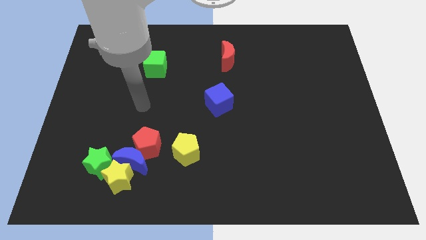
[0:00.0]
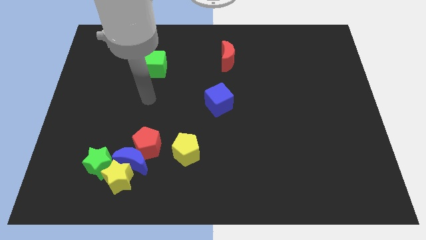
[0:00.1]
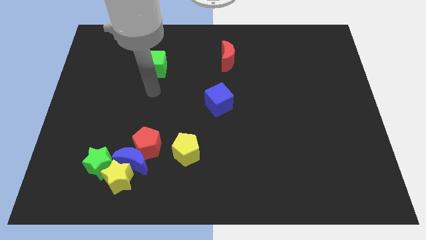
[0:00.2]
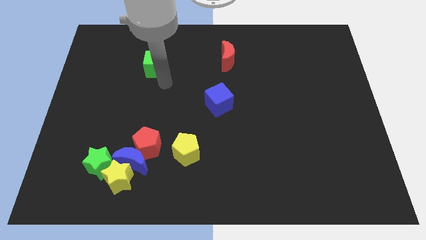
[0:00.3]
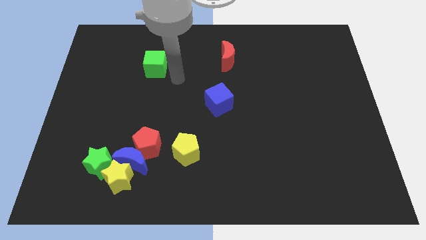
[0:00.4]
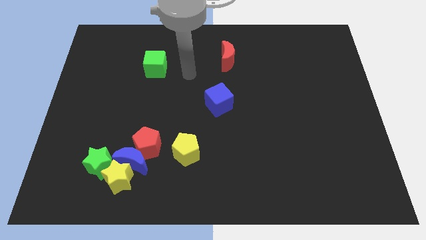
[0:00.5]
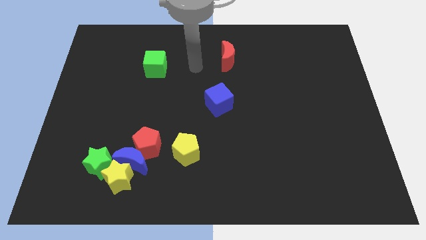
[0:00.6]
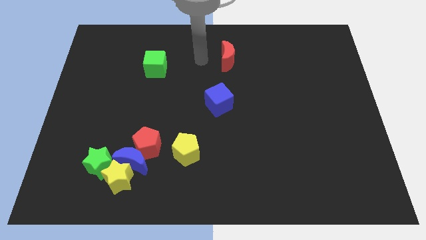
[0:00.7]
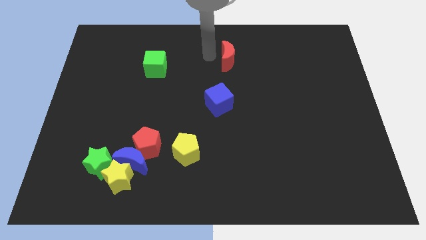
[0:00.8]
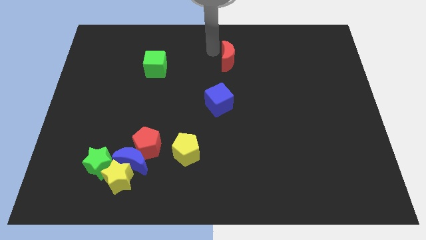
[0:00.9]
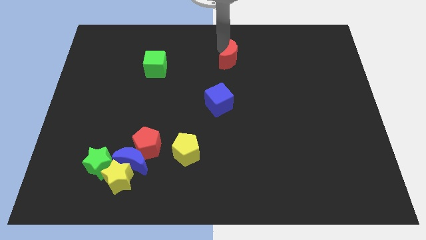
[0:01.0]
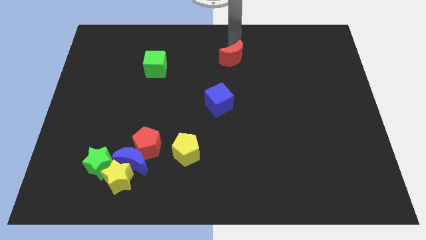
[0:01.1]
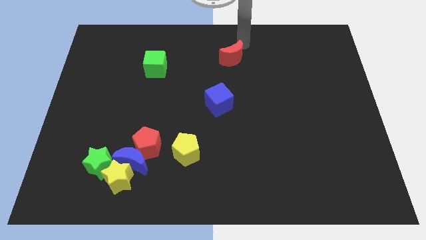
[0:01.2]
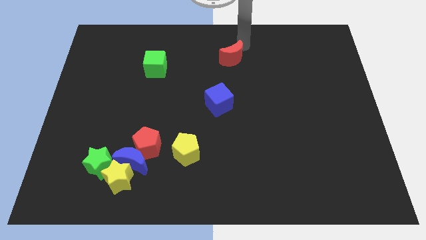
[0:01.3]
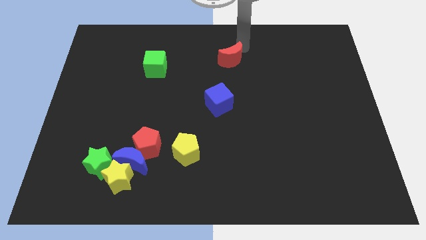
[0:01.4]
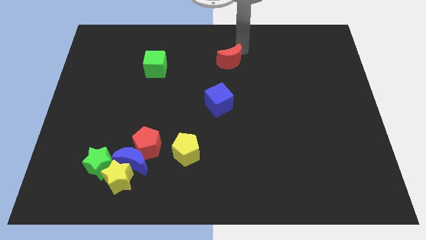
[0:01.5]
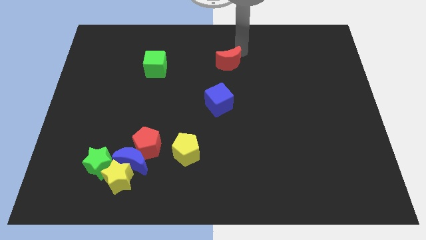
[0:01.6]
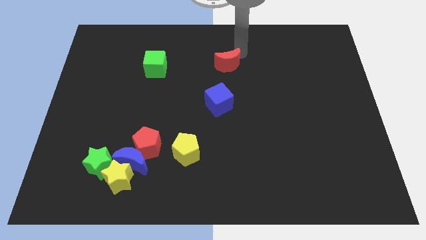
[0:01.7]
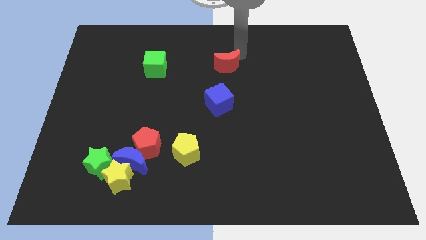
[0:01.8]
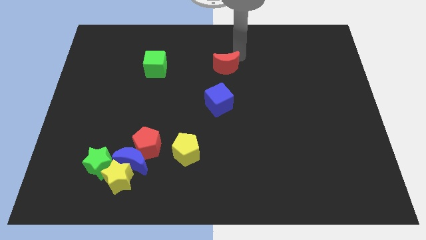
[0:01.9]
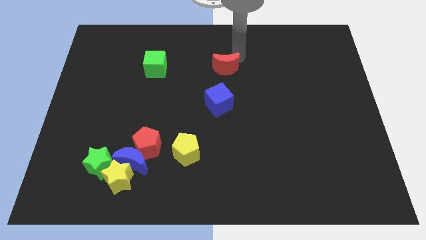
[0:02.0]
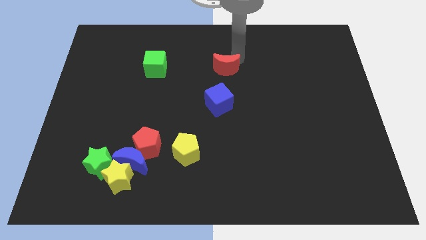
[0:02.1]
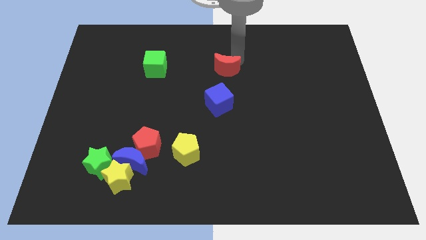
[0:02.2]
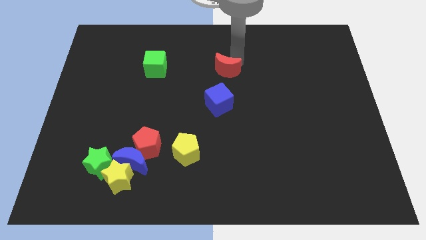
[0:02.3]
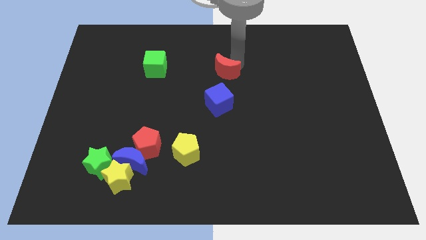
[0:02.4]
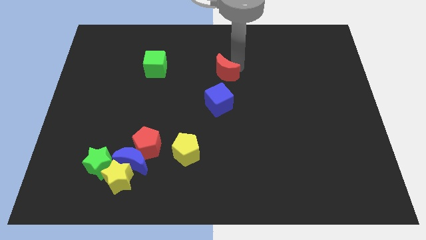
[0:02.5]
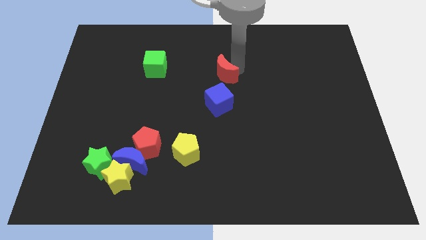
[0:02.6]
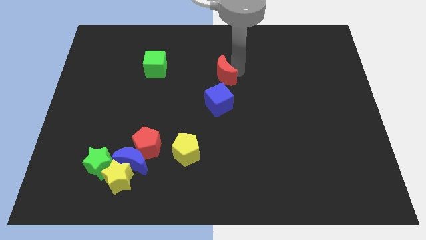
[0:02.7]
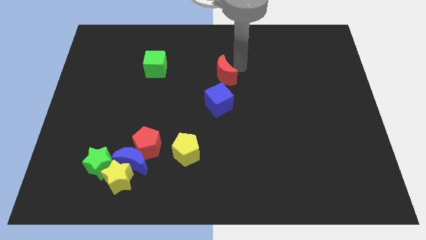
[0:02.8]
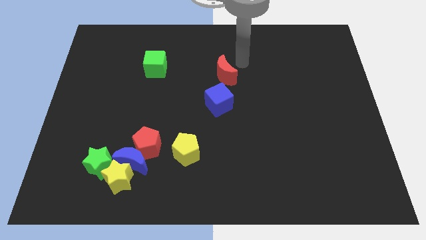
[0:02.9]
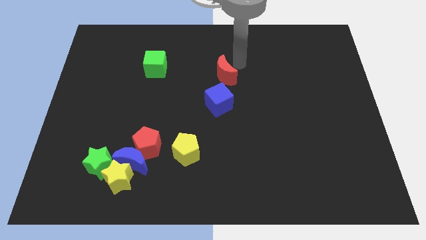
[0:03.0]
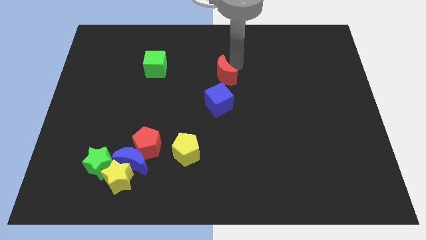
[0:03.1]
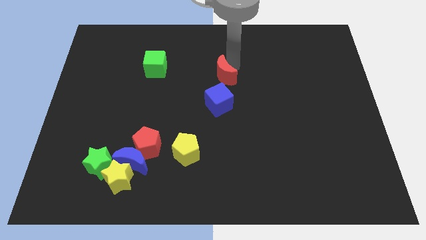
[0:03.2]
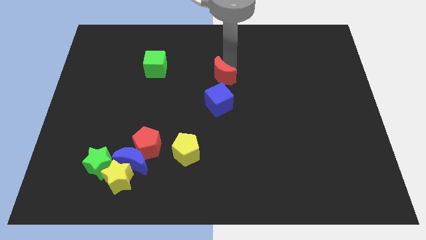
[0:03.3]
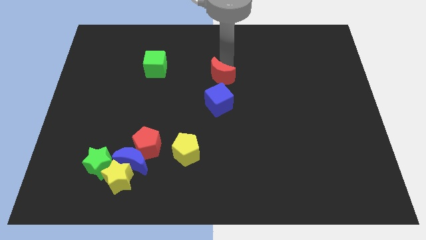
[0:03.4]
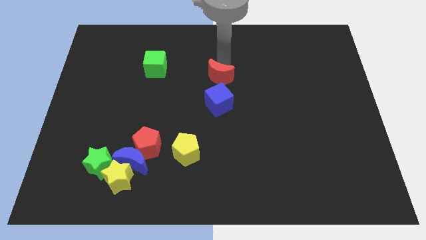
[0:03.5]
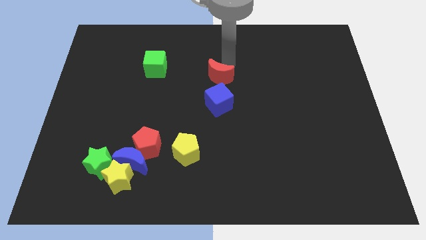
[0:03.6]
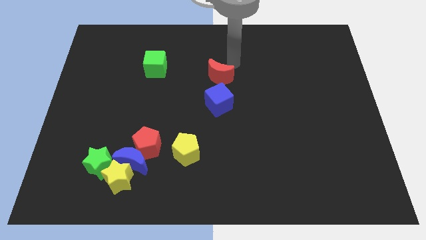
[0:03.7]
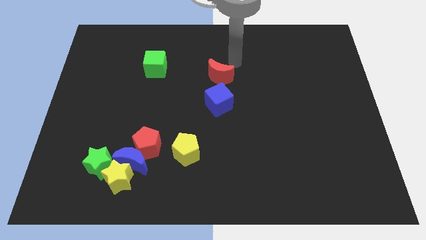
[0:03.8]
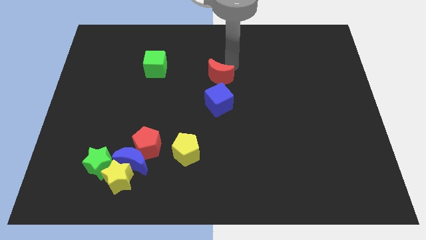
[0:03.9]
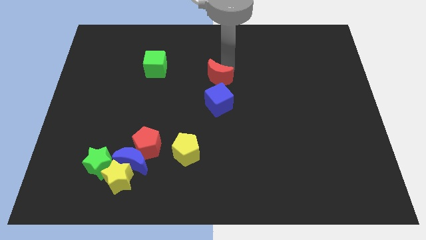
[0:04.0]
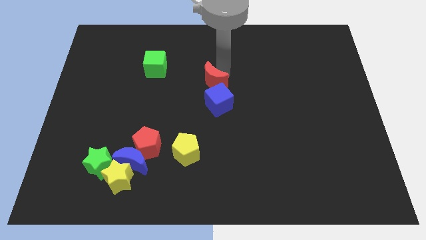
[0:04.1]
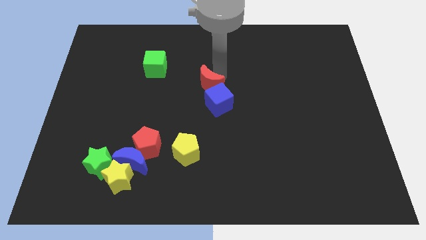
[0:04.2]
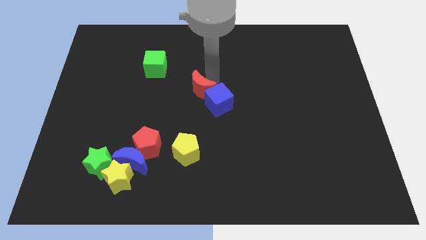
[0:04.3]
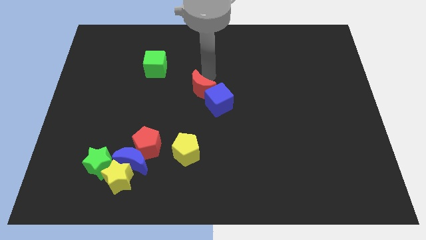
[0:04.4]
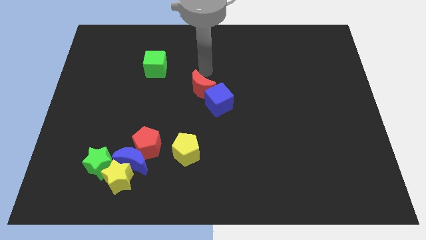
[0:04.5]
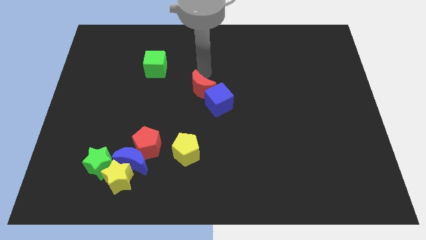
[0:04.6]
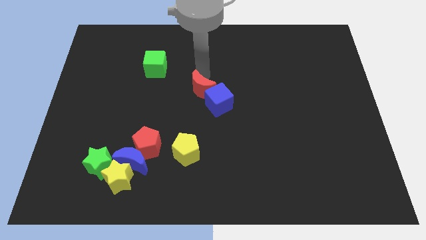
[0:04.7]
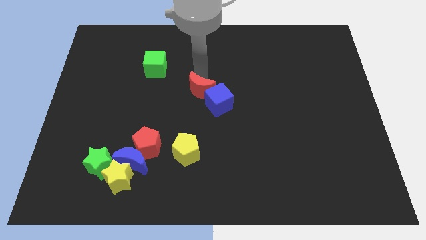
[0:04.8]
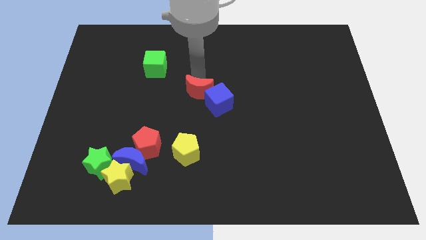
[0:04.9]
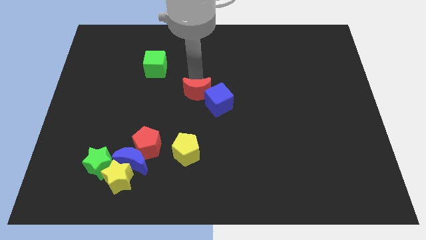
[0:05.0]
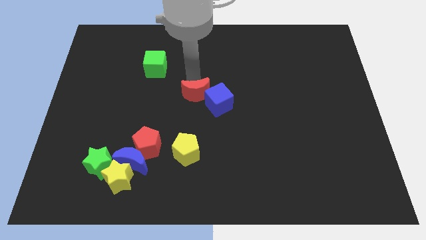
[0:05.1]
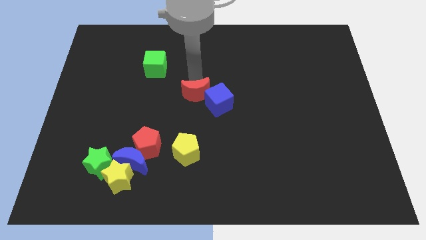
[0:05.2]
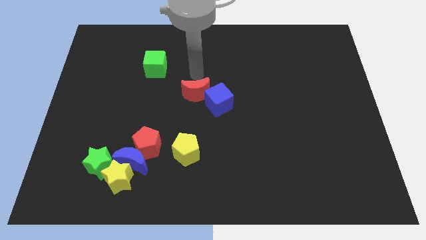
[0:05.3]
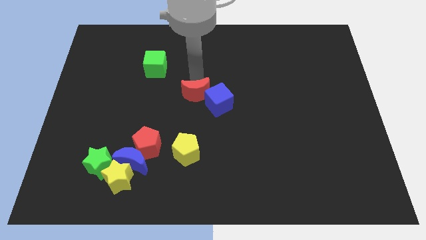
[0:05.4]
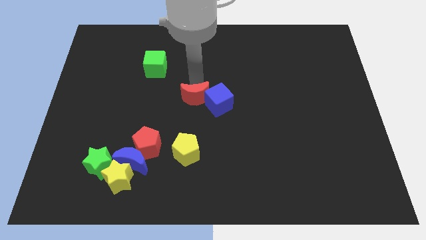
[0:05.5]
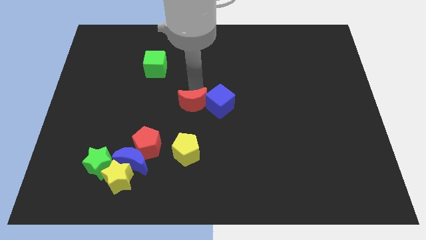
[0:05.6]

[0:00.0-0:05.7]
move the red moon diagonally down and to the left of the blue cube

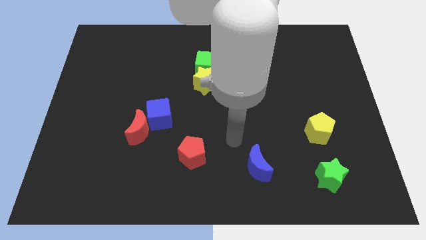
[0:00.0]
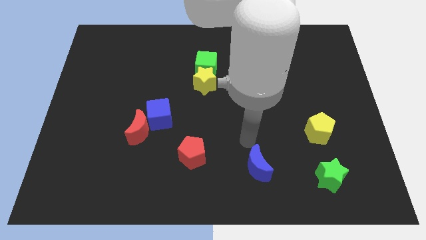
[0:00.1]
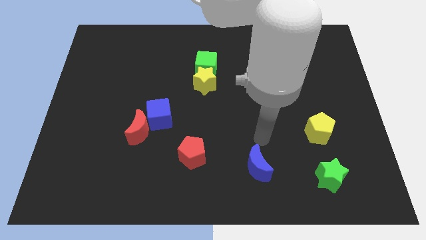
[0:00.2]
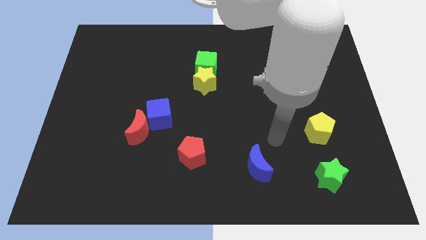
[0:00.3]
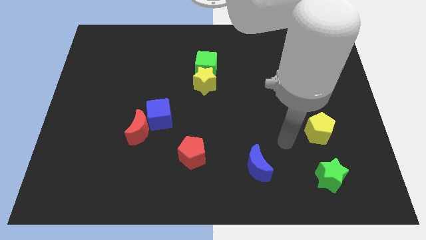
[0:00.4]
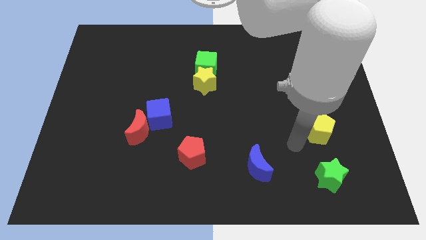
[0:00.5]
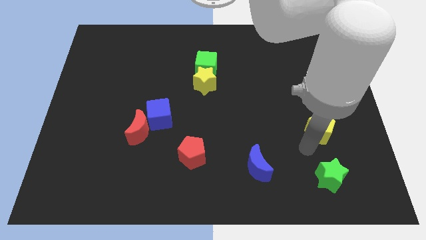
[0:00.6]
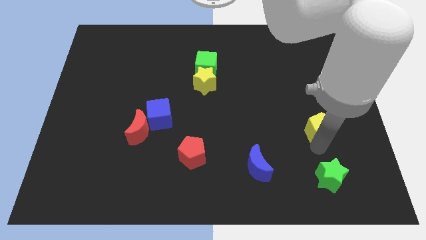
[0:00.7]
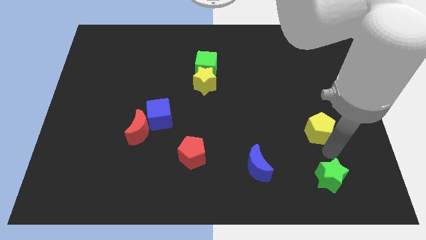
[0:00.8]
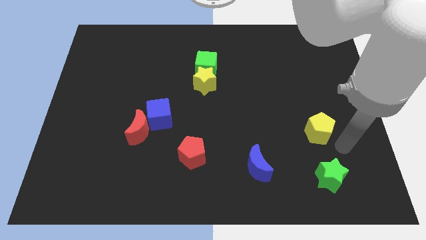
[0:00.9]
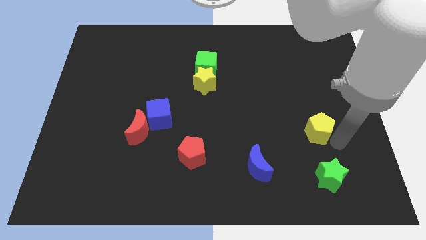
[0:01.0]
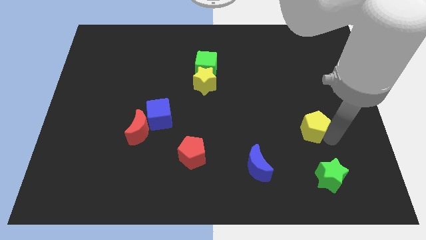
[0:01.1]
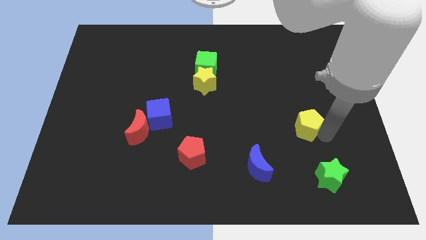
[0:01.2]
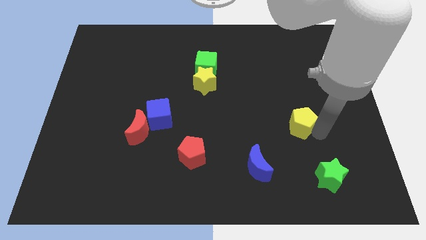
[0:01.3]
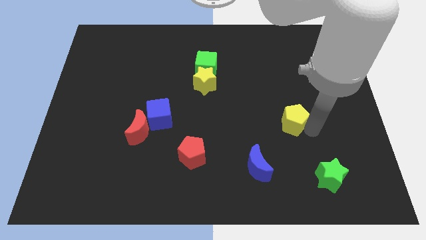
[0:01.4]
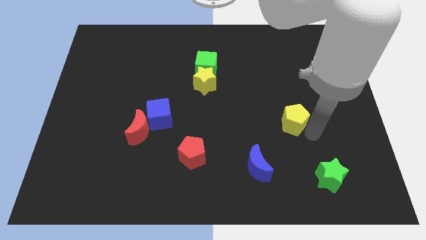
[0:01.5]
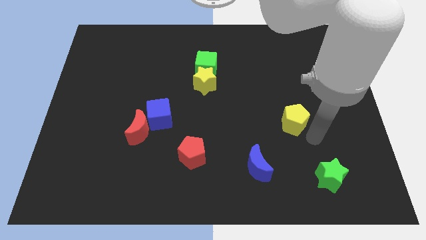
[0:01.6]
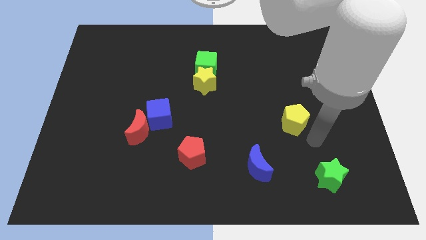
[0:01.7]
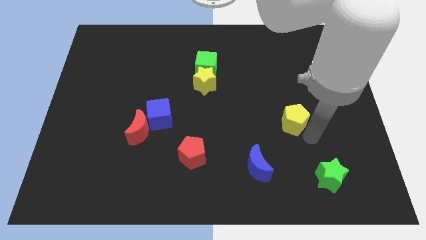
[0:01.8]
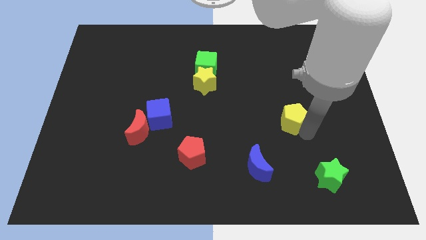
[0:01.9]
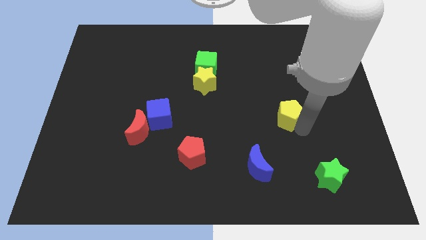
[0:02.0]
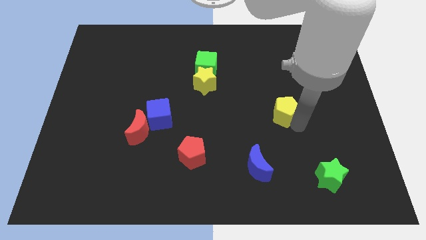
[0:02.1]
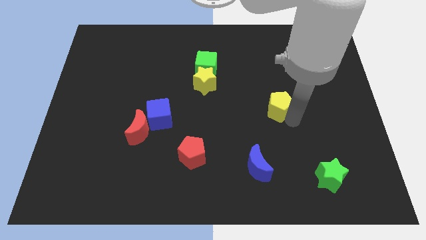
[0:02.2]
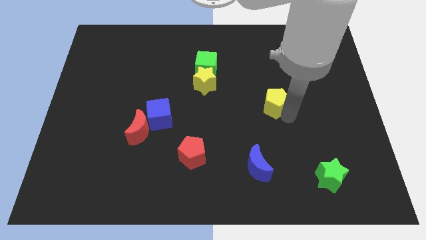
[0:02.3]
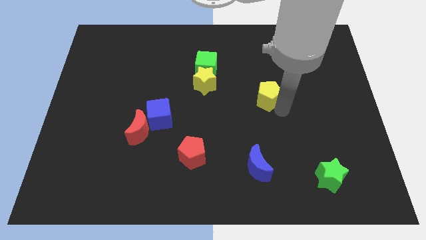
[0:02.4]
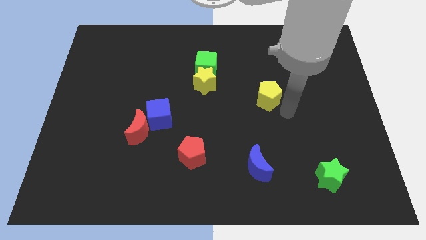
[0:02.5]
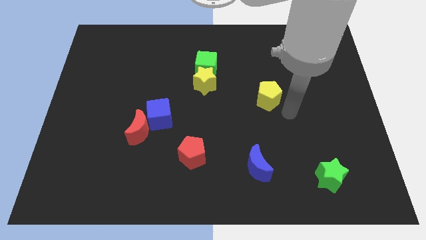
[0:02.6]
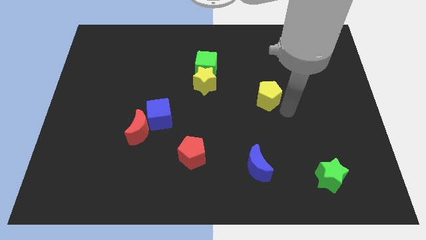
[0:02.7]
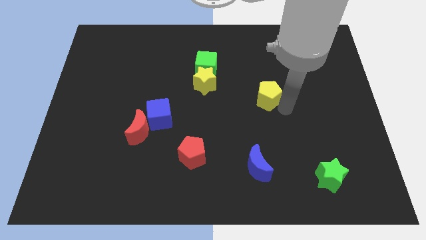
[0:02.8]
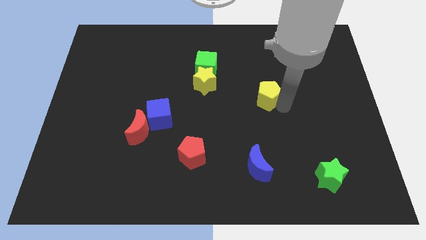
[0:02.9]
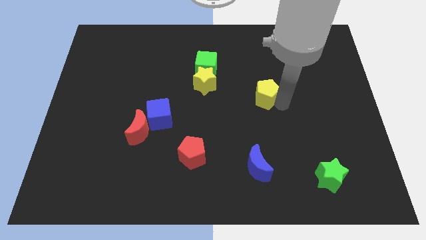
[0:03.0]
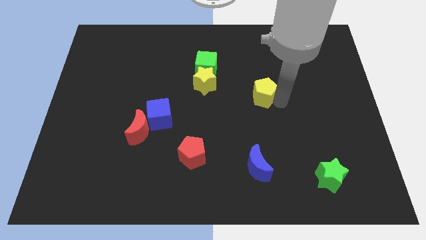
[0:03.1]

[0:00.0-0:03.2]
put the yellow pentagon to the right side of the yellow star
